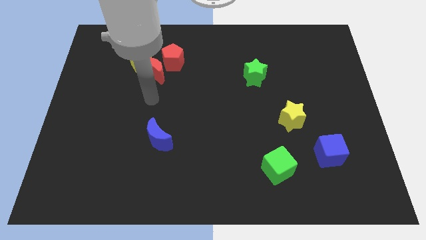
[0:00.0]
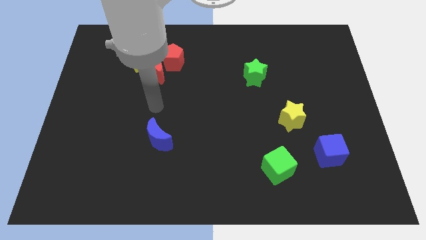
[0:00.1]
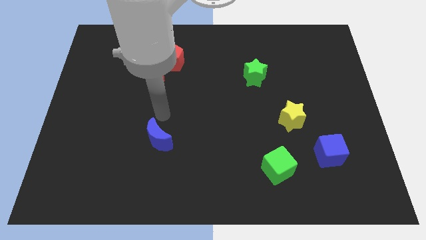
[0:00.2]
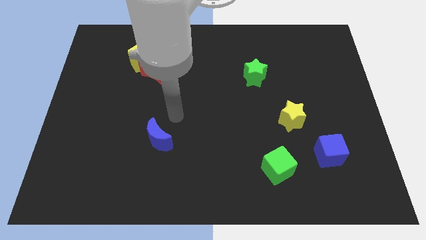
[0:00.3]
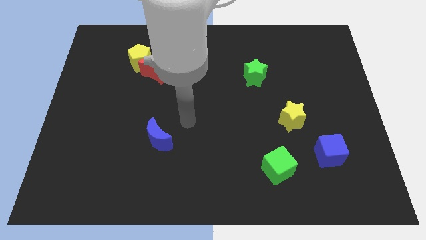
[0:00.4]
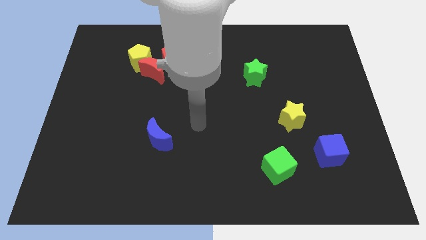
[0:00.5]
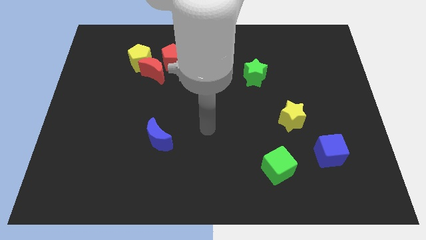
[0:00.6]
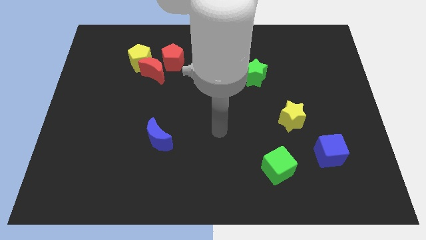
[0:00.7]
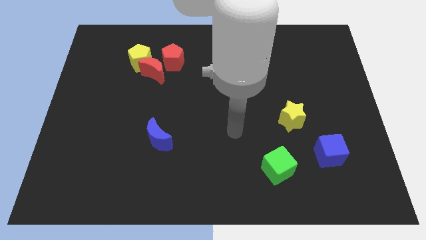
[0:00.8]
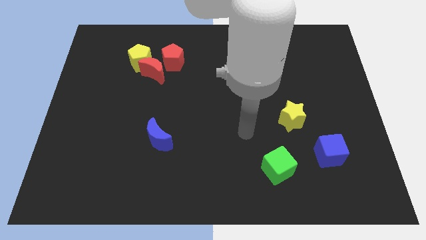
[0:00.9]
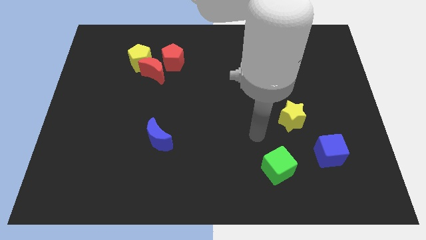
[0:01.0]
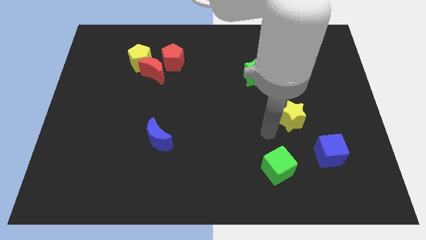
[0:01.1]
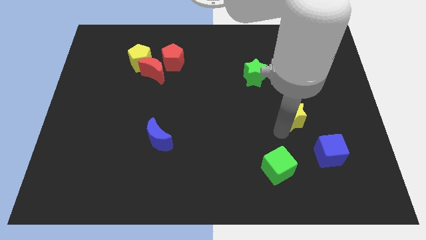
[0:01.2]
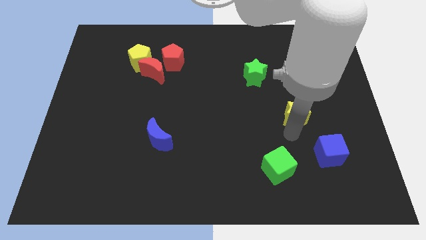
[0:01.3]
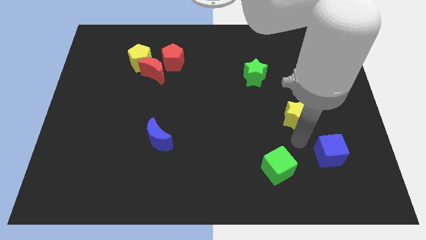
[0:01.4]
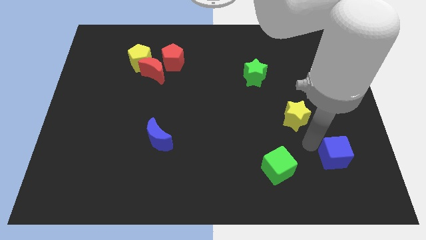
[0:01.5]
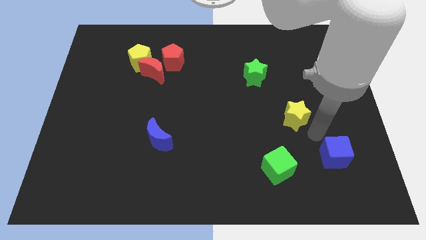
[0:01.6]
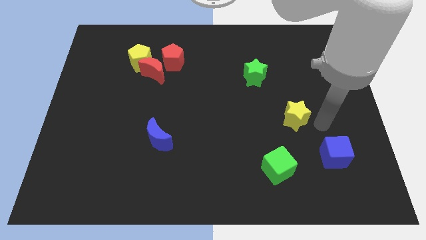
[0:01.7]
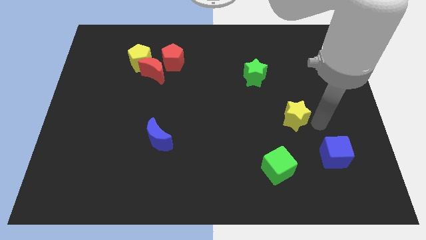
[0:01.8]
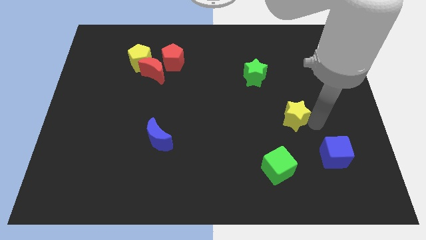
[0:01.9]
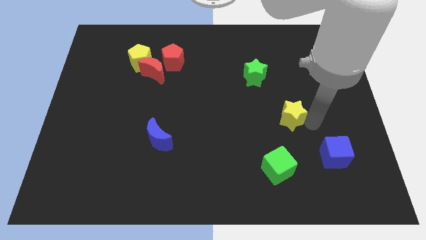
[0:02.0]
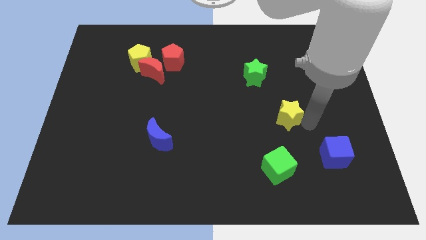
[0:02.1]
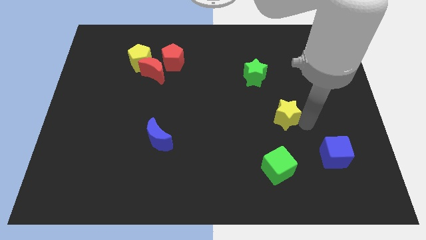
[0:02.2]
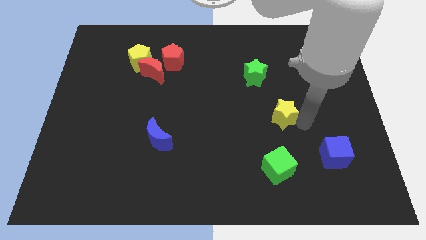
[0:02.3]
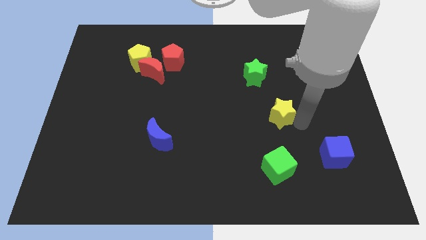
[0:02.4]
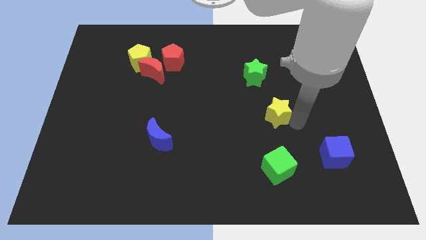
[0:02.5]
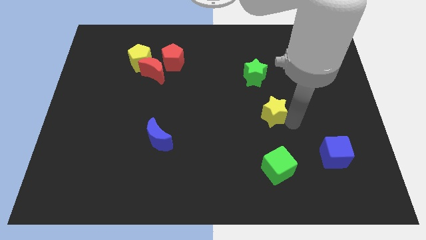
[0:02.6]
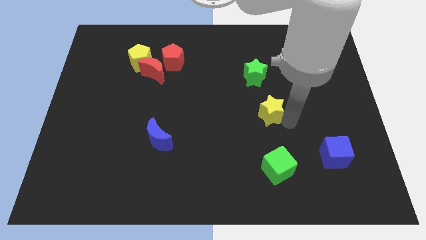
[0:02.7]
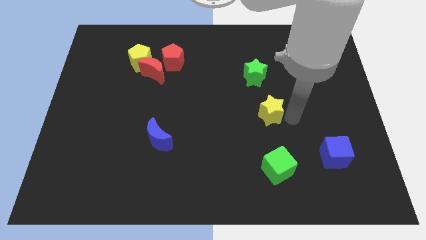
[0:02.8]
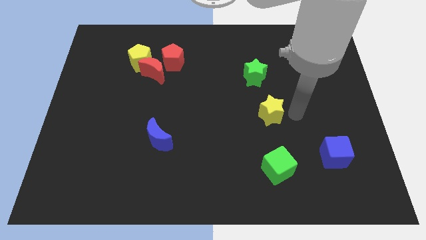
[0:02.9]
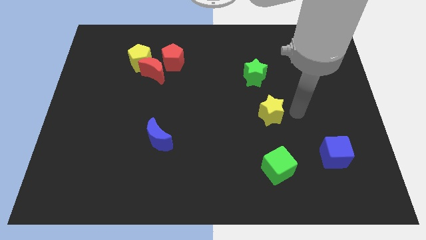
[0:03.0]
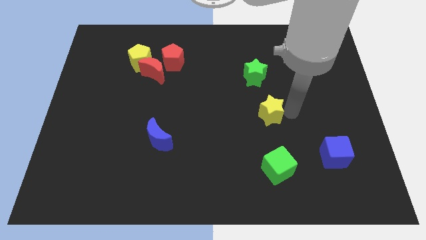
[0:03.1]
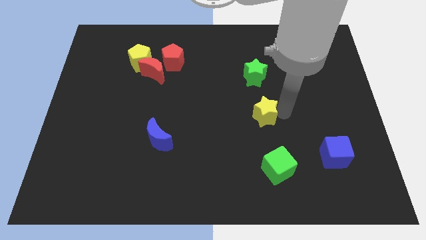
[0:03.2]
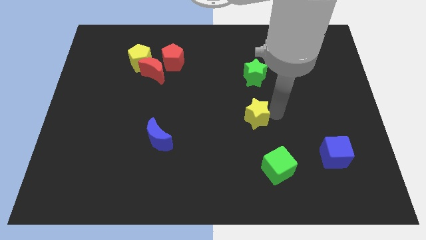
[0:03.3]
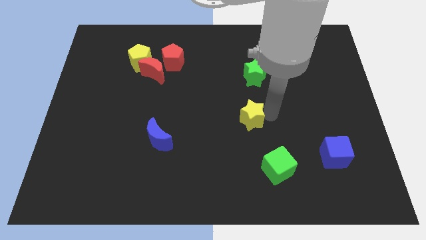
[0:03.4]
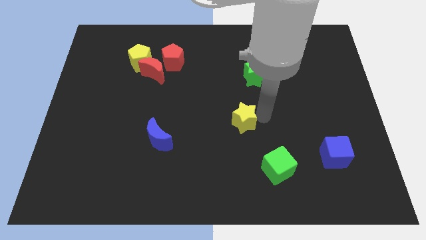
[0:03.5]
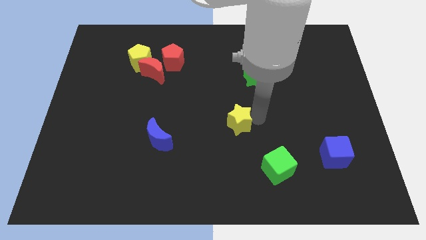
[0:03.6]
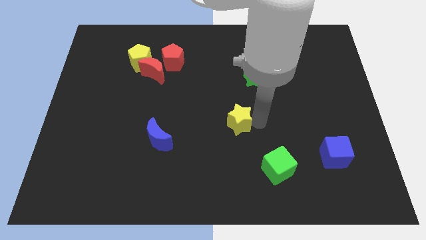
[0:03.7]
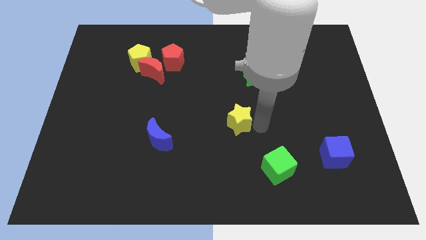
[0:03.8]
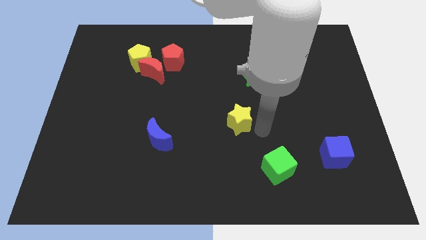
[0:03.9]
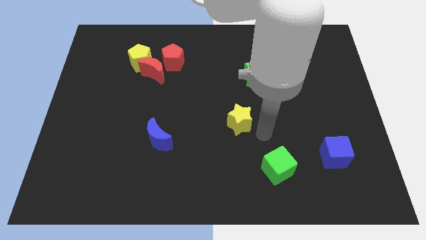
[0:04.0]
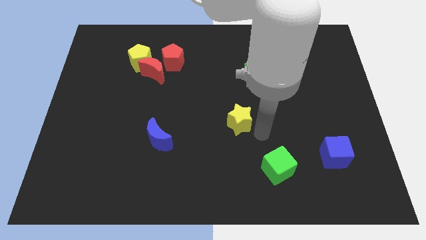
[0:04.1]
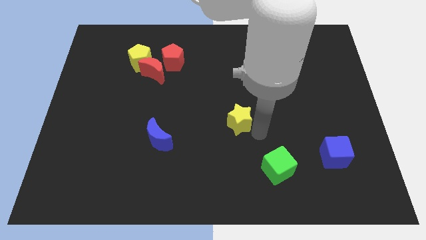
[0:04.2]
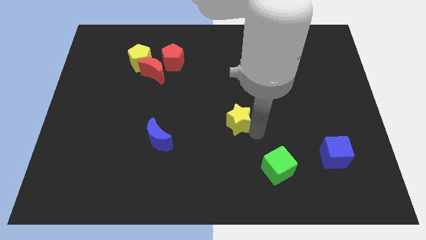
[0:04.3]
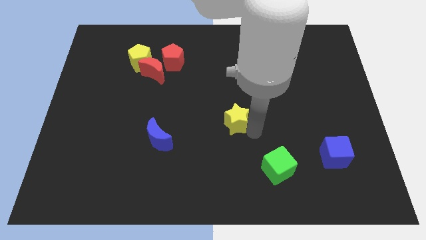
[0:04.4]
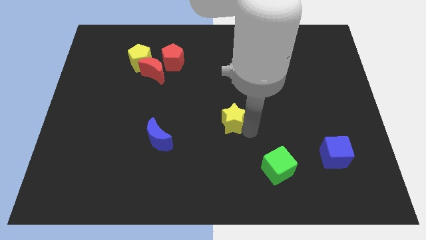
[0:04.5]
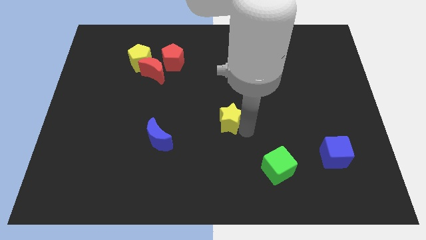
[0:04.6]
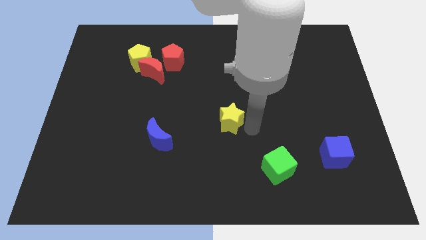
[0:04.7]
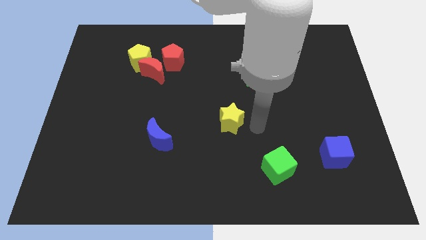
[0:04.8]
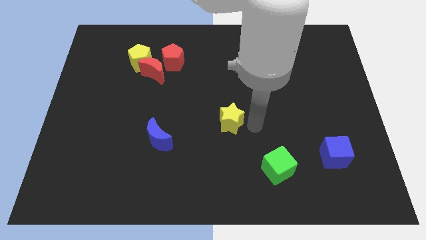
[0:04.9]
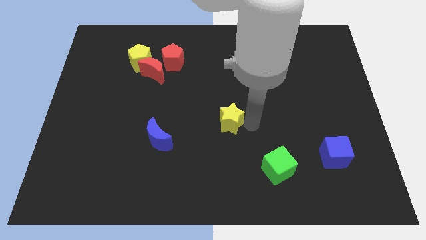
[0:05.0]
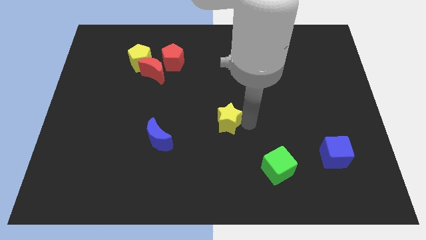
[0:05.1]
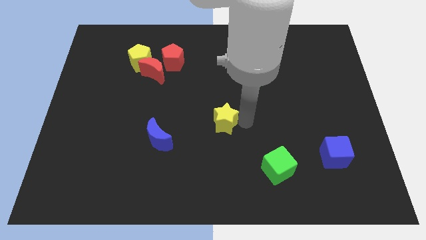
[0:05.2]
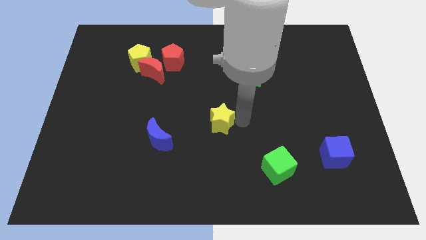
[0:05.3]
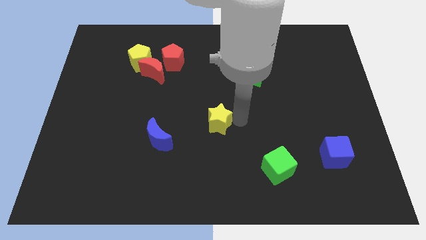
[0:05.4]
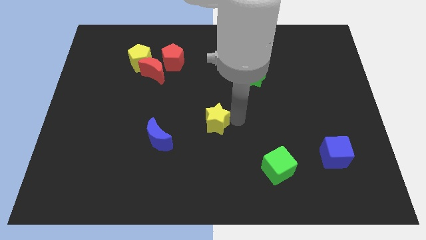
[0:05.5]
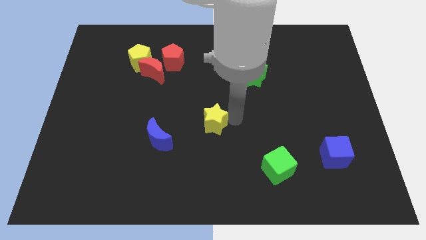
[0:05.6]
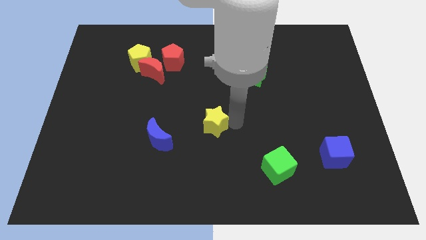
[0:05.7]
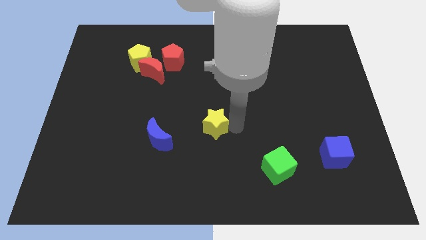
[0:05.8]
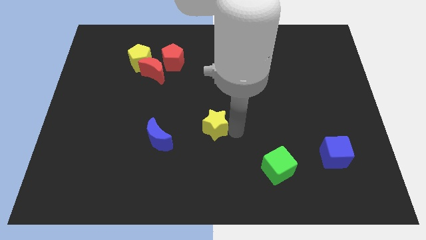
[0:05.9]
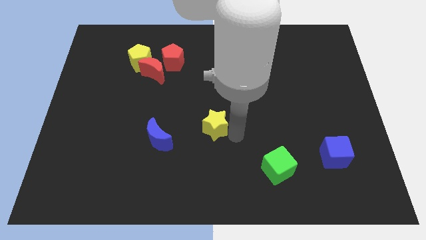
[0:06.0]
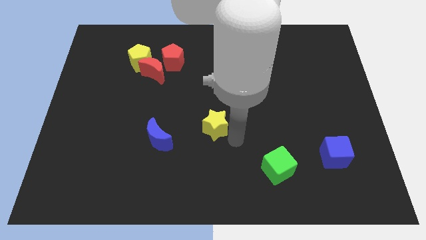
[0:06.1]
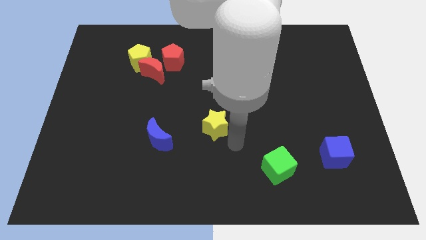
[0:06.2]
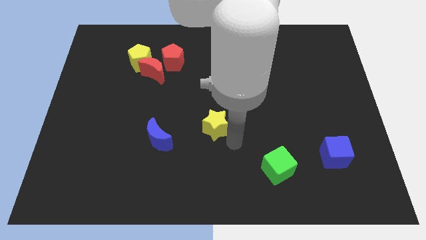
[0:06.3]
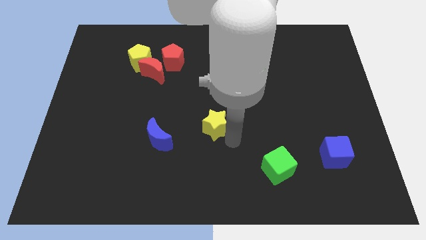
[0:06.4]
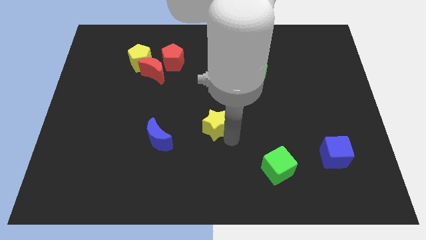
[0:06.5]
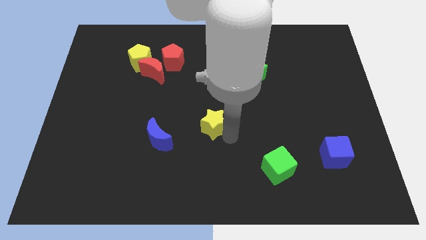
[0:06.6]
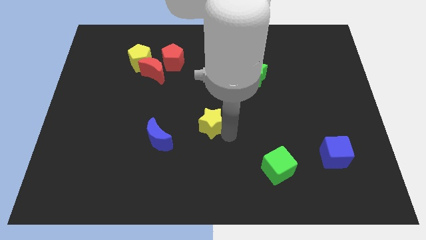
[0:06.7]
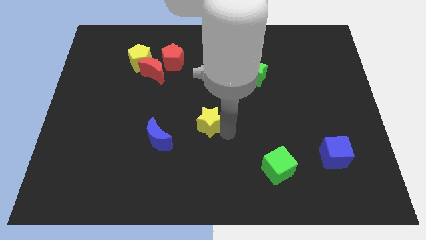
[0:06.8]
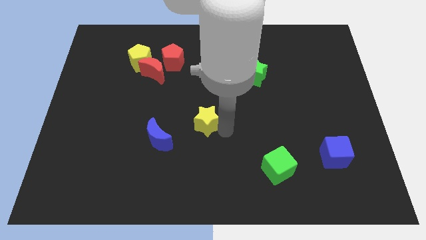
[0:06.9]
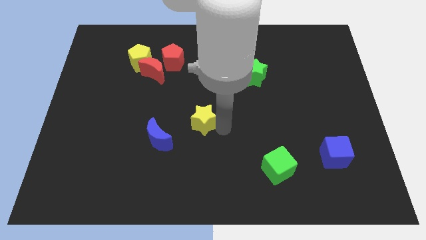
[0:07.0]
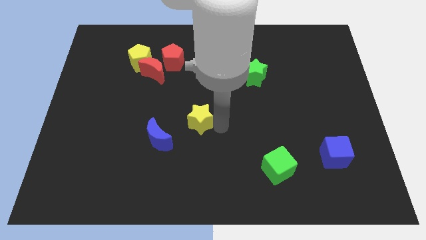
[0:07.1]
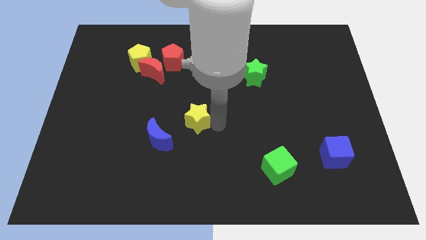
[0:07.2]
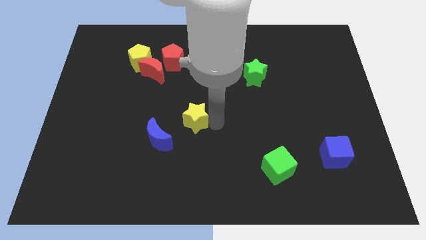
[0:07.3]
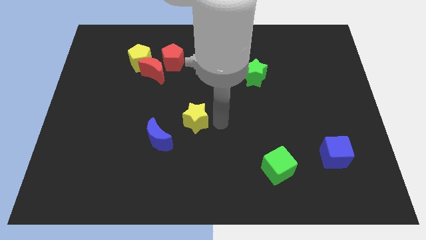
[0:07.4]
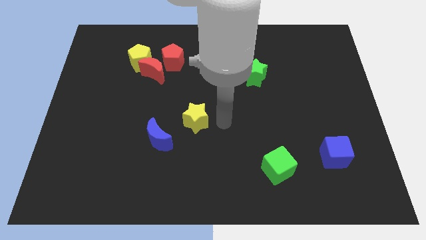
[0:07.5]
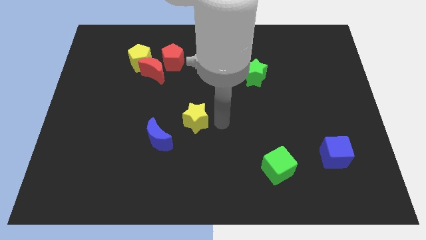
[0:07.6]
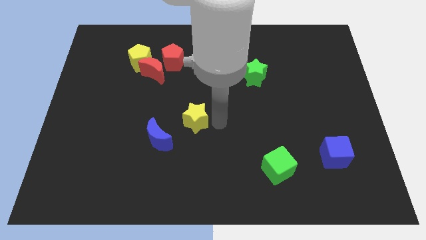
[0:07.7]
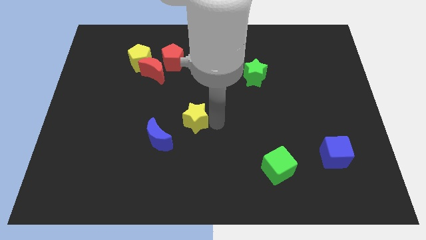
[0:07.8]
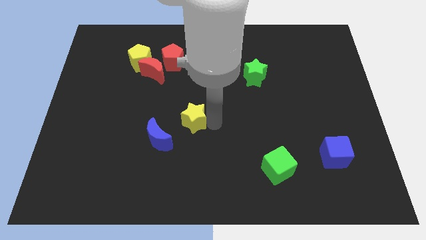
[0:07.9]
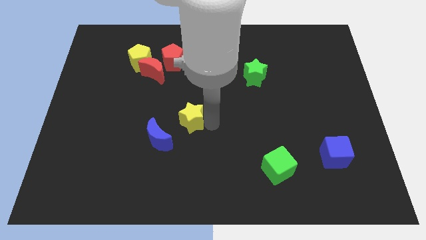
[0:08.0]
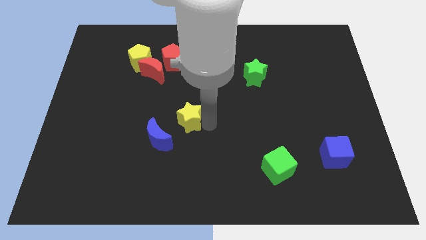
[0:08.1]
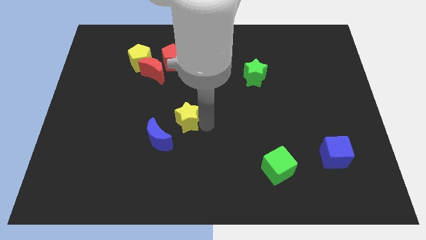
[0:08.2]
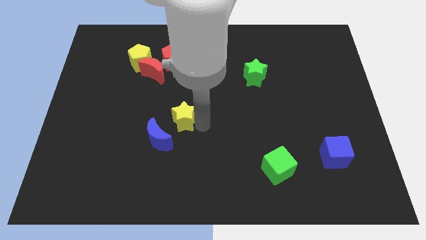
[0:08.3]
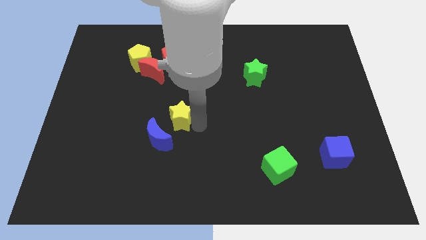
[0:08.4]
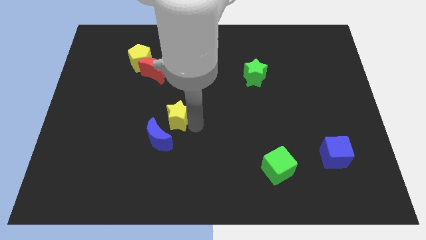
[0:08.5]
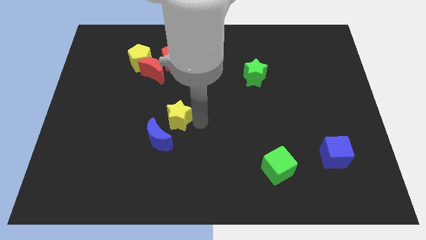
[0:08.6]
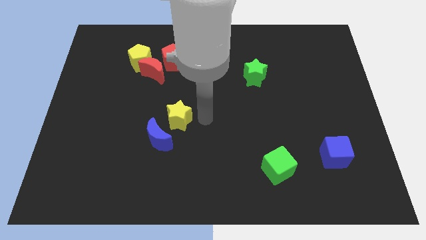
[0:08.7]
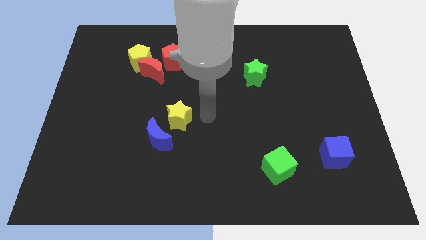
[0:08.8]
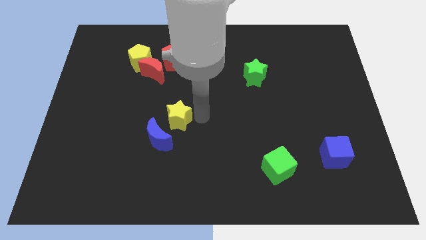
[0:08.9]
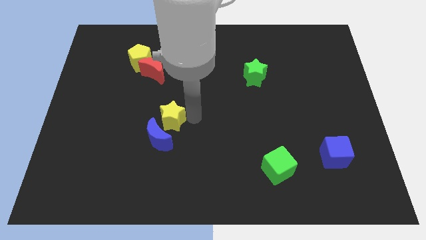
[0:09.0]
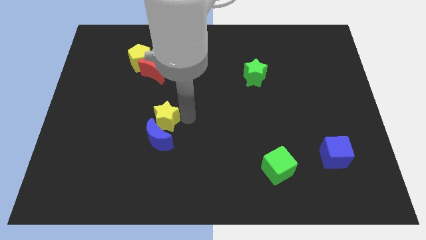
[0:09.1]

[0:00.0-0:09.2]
push the yellow star to the top left side of the blue moon
